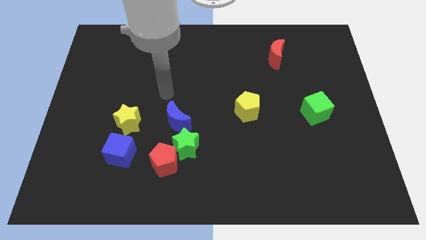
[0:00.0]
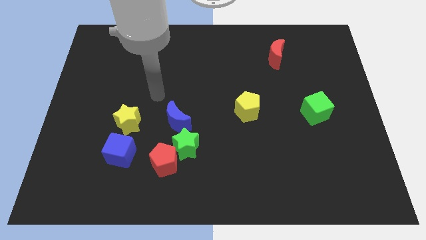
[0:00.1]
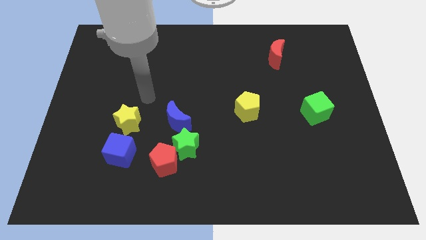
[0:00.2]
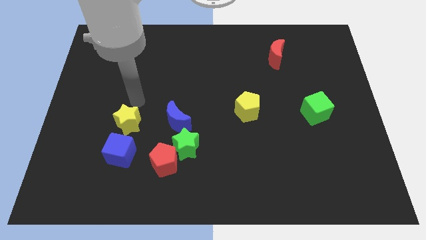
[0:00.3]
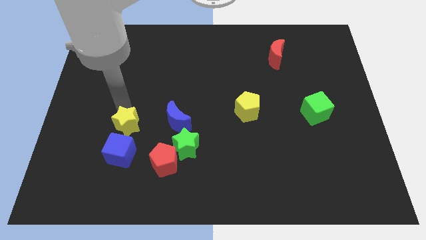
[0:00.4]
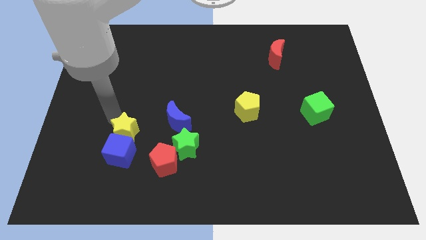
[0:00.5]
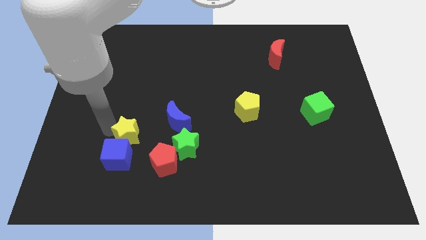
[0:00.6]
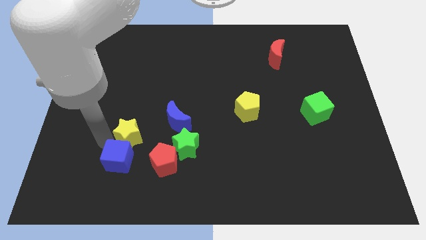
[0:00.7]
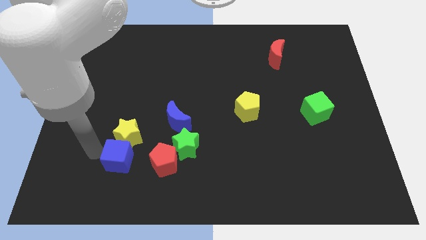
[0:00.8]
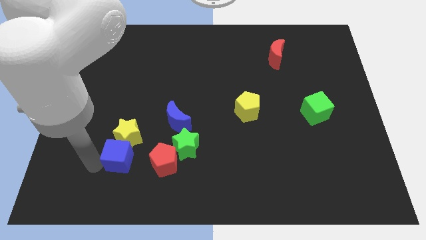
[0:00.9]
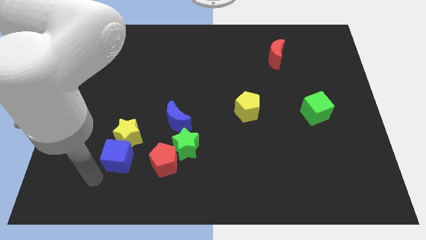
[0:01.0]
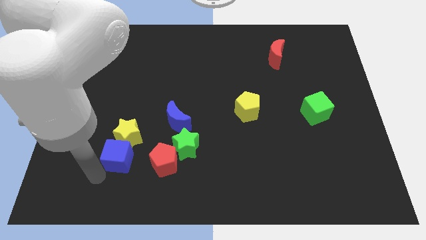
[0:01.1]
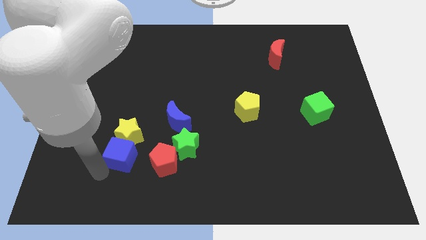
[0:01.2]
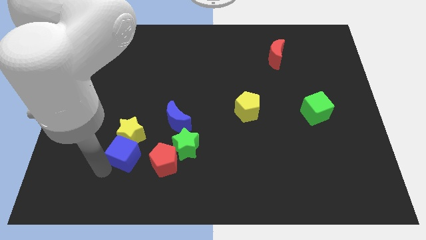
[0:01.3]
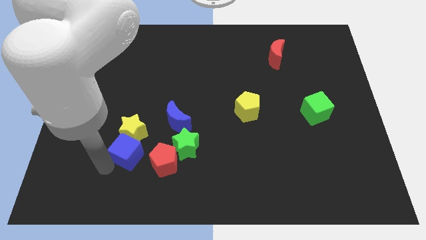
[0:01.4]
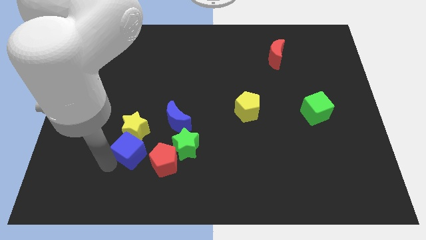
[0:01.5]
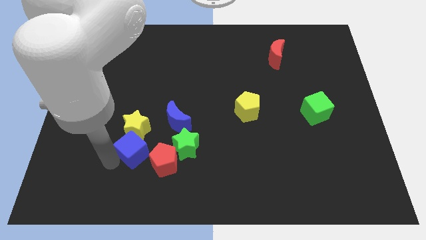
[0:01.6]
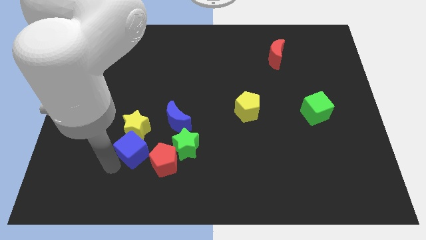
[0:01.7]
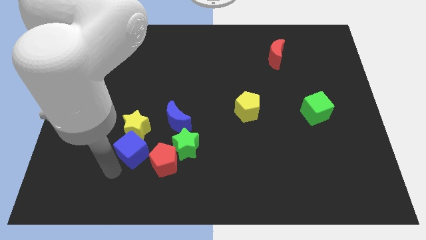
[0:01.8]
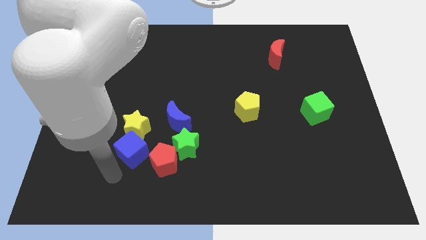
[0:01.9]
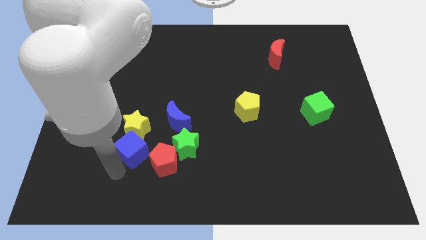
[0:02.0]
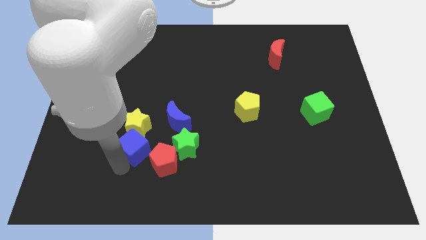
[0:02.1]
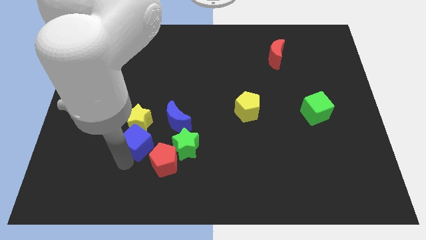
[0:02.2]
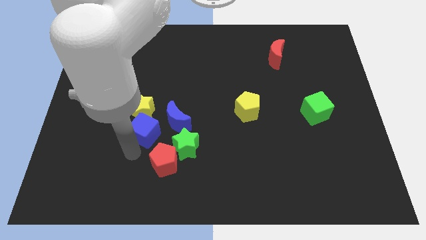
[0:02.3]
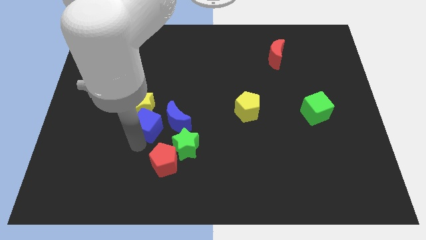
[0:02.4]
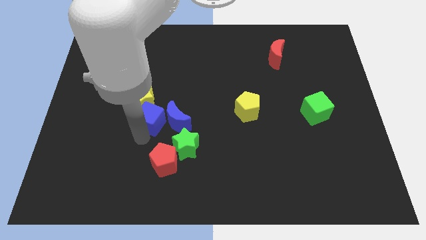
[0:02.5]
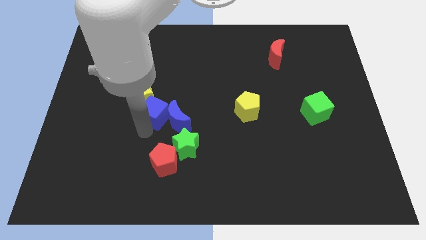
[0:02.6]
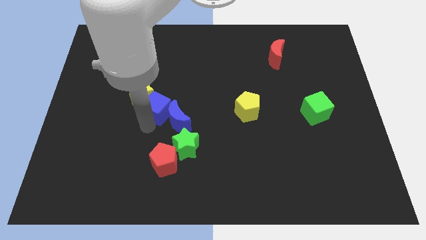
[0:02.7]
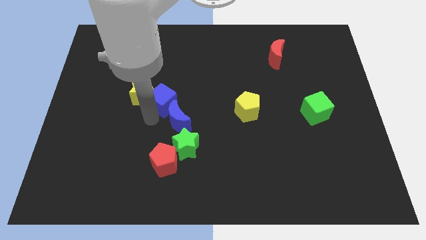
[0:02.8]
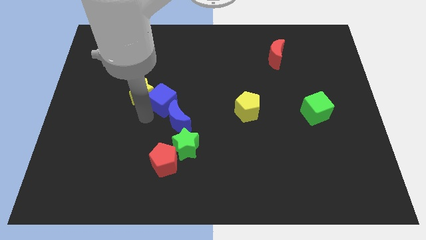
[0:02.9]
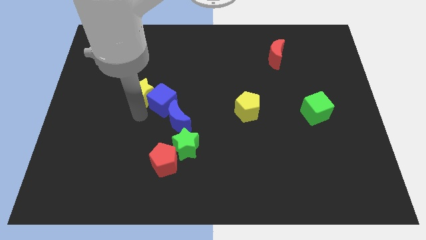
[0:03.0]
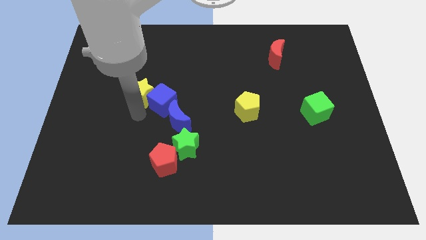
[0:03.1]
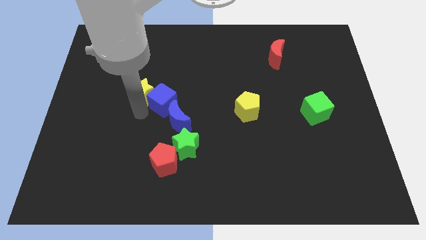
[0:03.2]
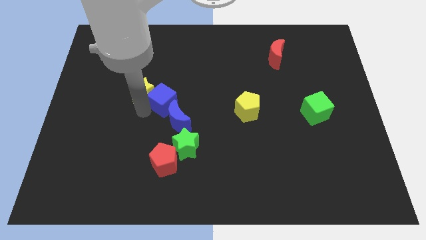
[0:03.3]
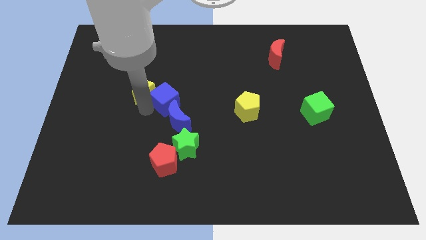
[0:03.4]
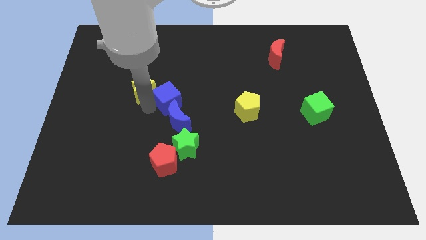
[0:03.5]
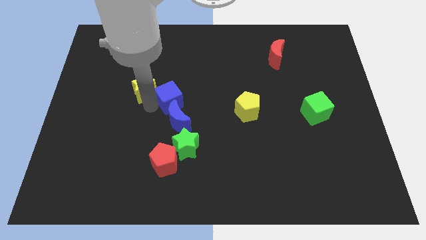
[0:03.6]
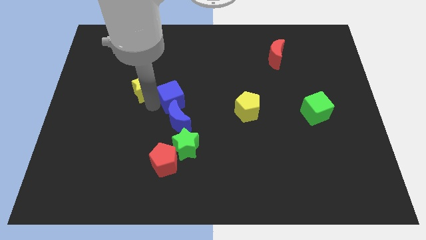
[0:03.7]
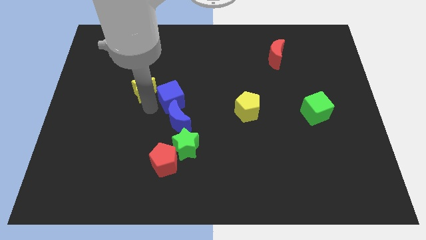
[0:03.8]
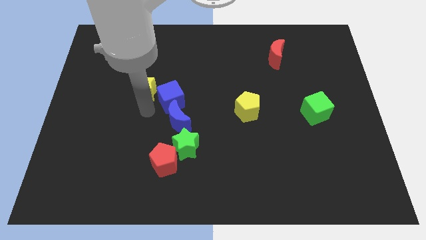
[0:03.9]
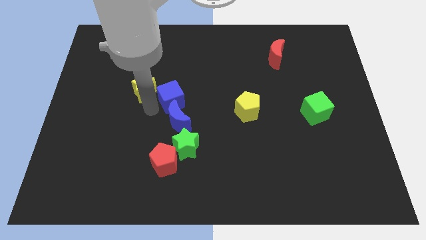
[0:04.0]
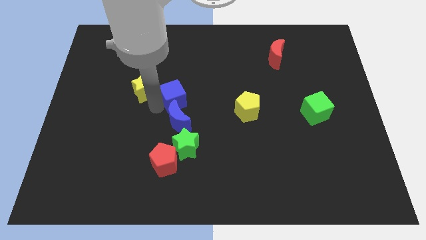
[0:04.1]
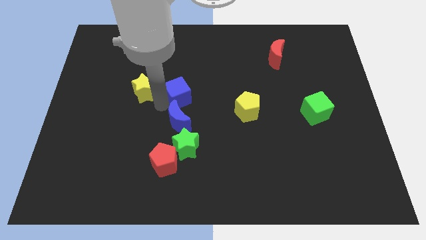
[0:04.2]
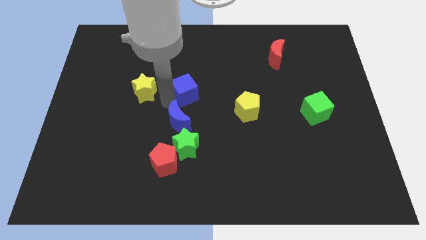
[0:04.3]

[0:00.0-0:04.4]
slide the blue cube up and right

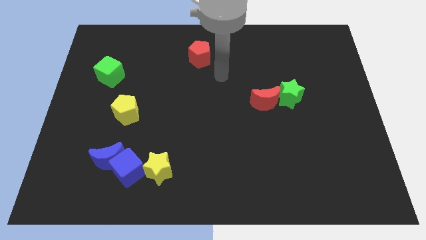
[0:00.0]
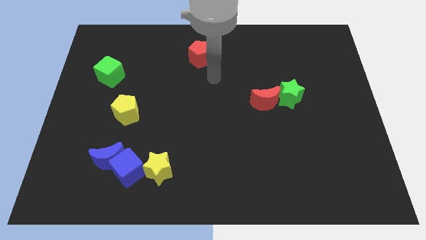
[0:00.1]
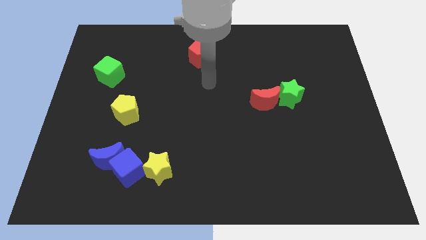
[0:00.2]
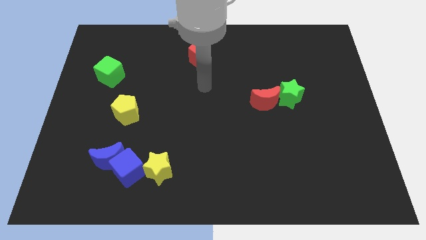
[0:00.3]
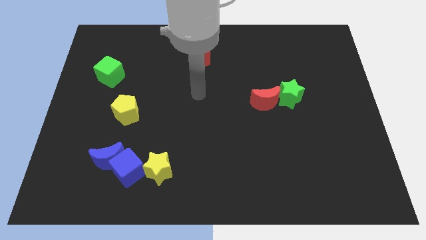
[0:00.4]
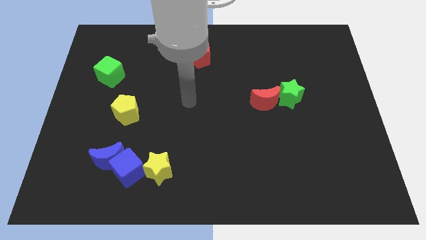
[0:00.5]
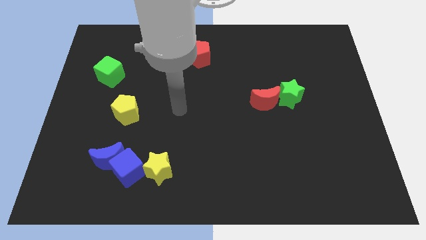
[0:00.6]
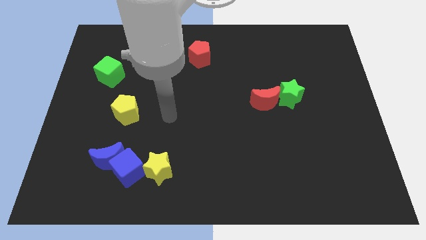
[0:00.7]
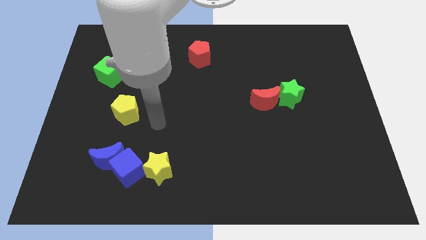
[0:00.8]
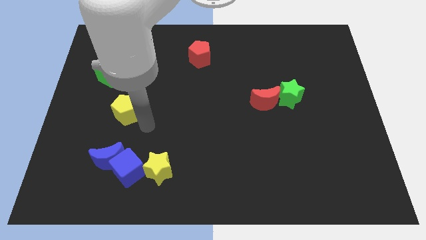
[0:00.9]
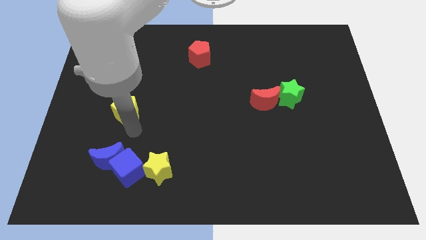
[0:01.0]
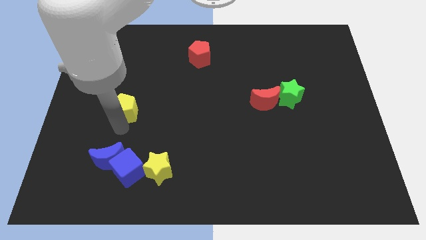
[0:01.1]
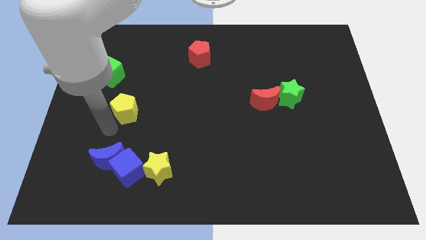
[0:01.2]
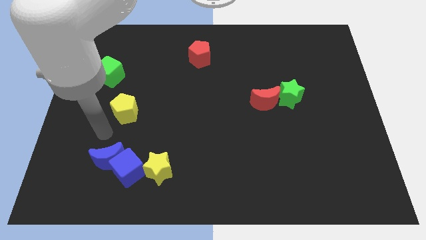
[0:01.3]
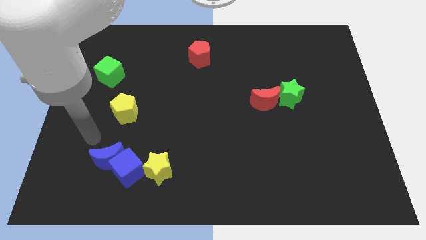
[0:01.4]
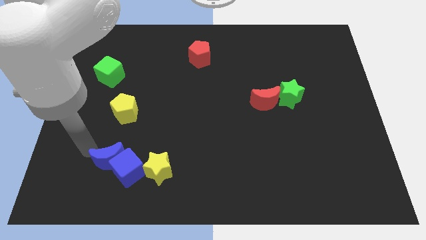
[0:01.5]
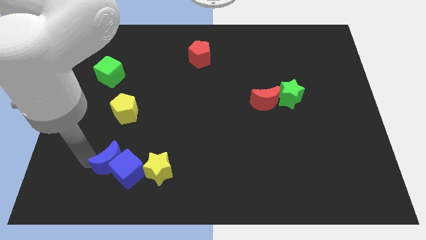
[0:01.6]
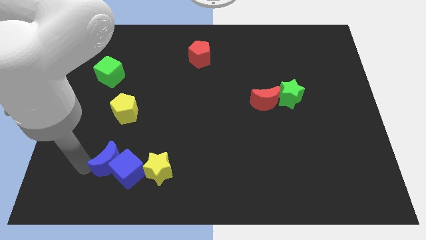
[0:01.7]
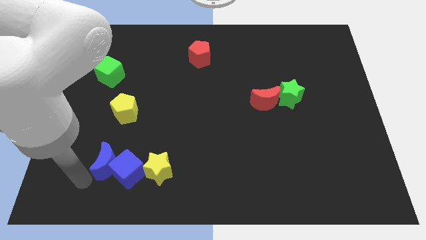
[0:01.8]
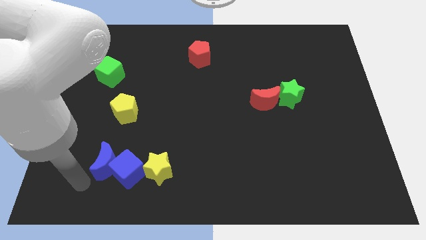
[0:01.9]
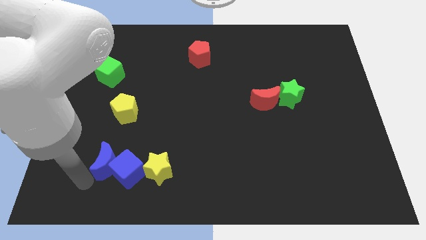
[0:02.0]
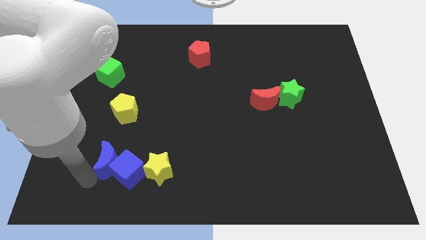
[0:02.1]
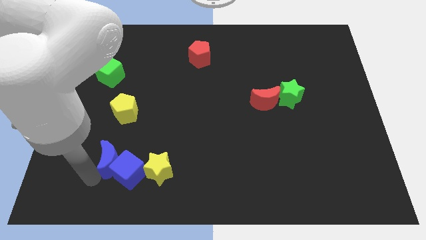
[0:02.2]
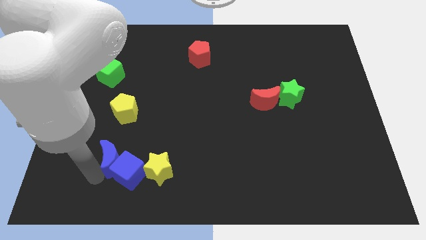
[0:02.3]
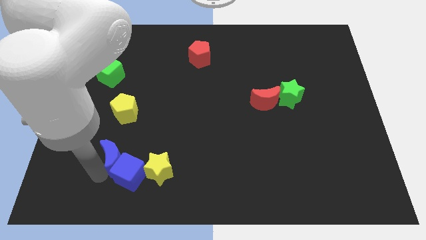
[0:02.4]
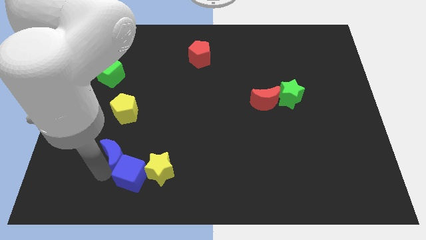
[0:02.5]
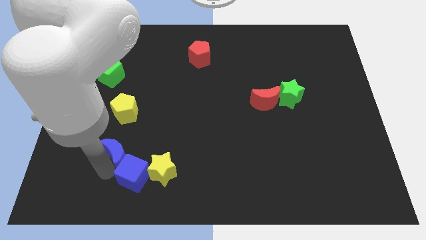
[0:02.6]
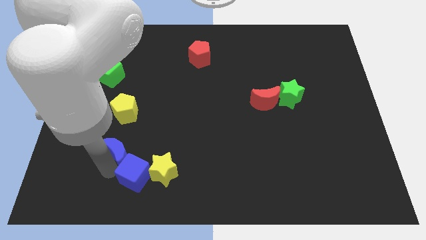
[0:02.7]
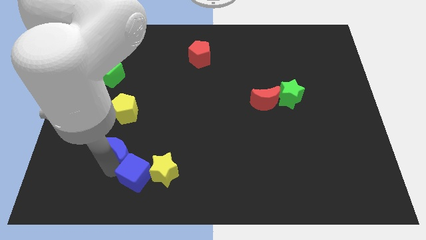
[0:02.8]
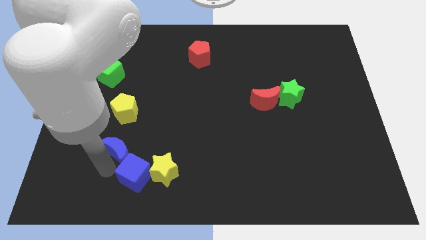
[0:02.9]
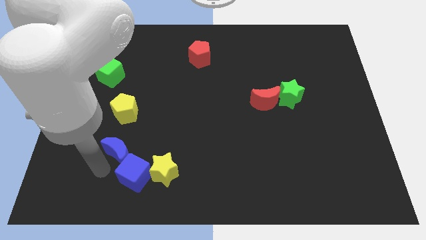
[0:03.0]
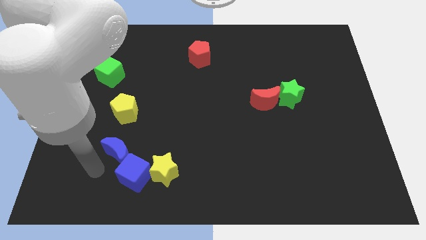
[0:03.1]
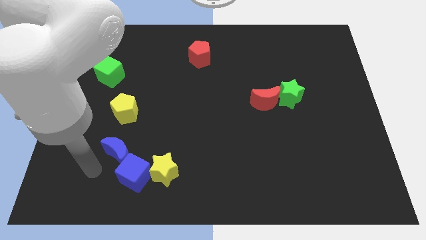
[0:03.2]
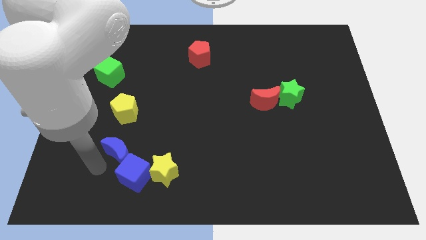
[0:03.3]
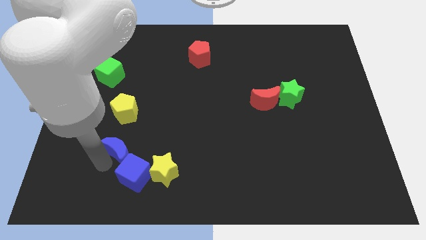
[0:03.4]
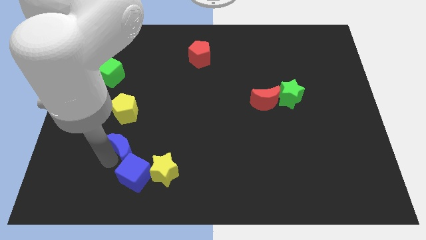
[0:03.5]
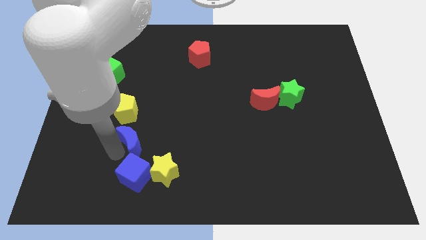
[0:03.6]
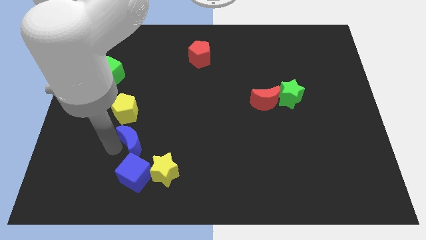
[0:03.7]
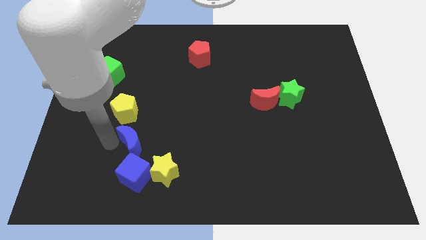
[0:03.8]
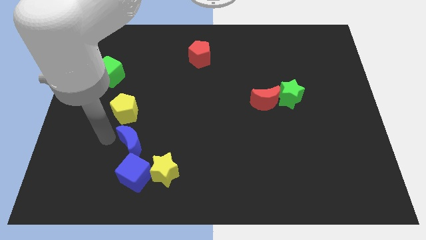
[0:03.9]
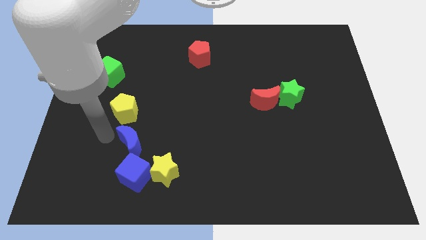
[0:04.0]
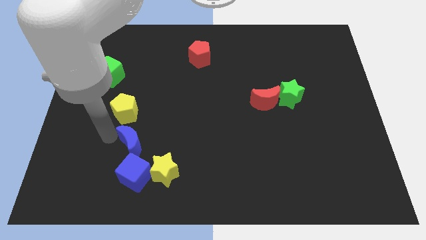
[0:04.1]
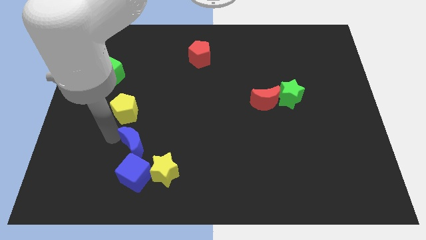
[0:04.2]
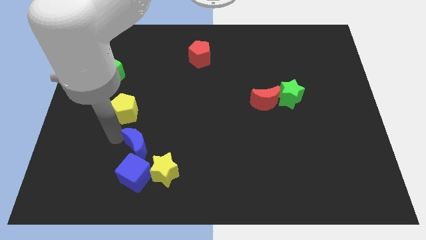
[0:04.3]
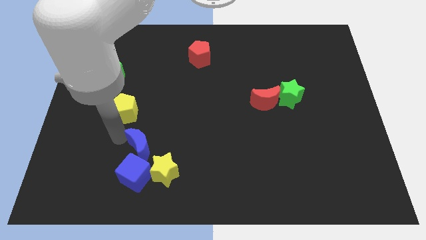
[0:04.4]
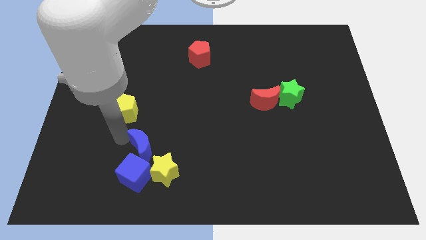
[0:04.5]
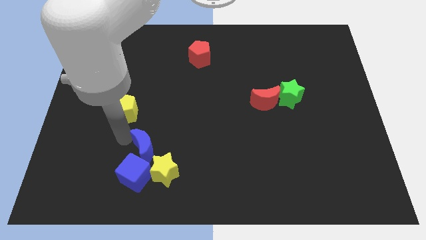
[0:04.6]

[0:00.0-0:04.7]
slightly slide the blue moon right
